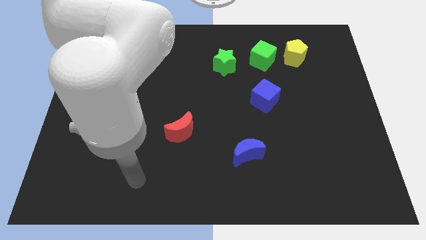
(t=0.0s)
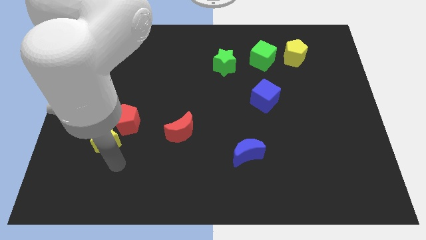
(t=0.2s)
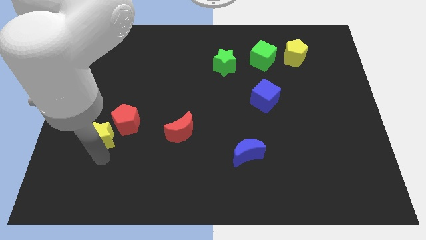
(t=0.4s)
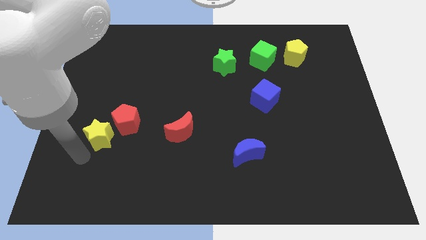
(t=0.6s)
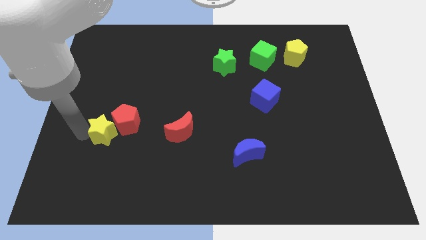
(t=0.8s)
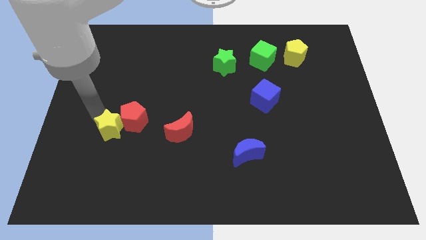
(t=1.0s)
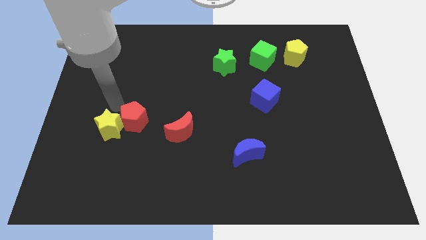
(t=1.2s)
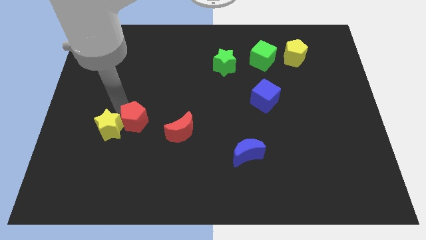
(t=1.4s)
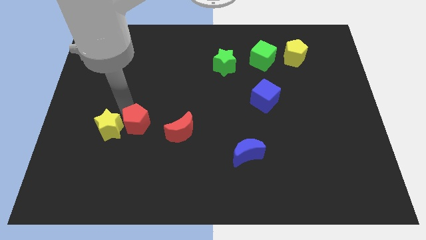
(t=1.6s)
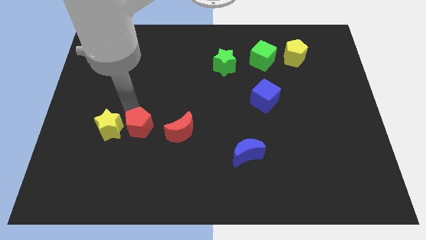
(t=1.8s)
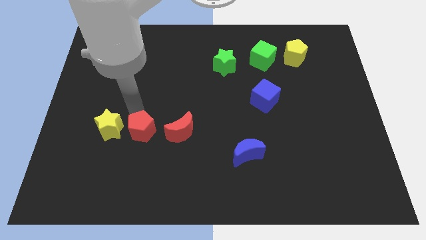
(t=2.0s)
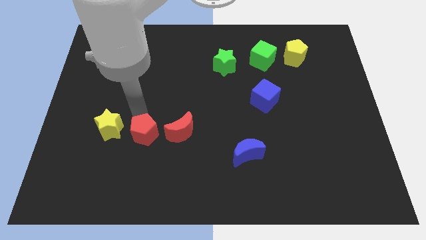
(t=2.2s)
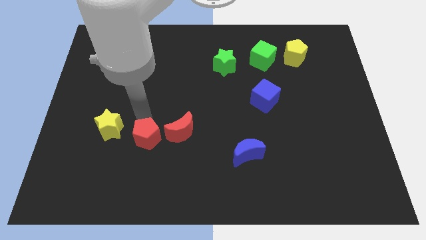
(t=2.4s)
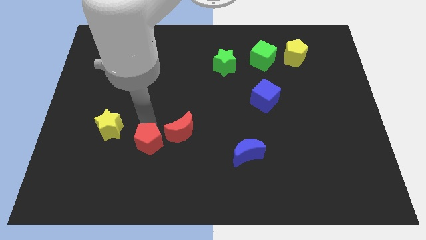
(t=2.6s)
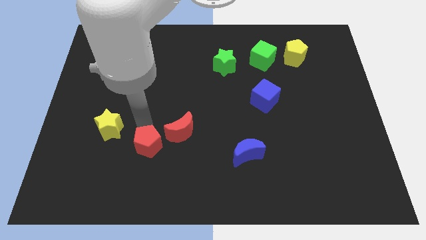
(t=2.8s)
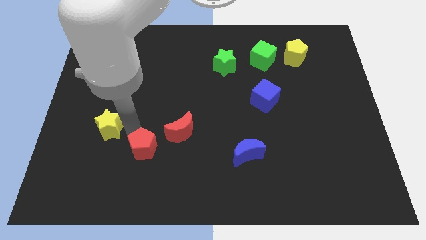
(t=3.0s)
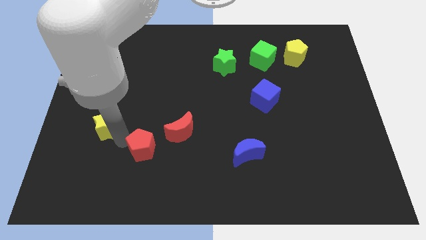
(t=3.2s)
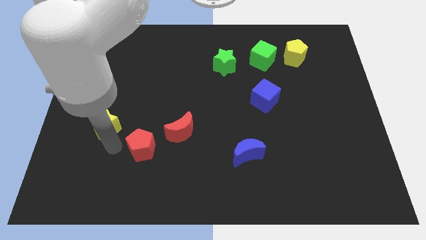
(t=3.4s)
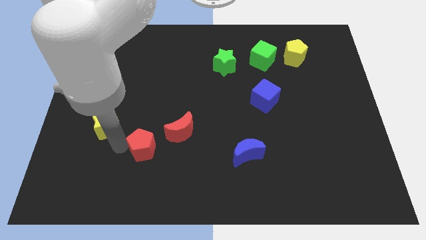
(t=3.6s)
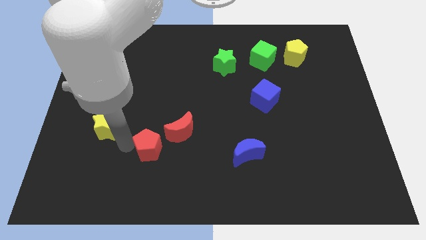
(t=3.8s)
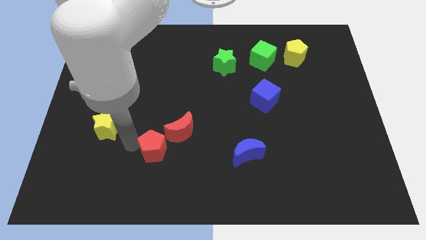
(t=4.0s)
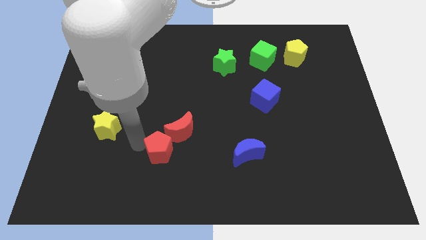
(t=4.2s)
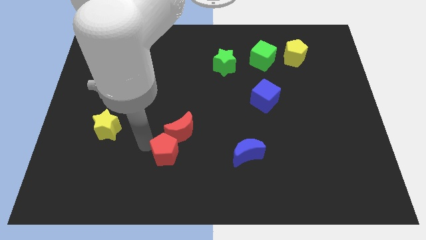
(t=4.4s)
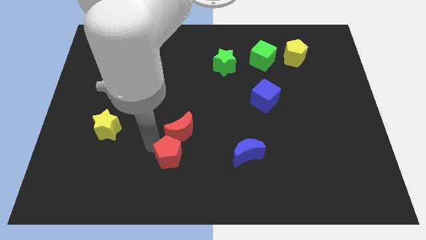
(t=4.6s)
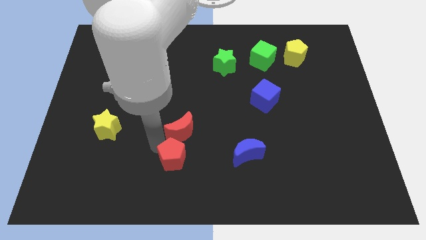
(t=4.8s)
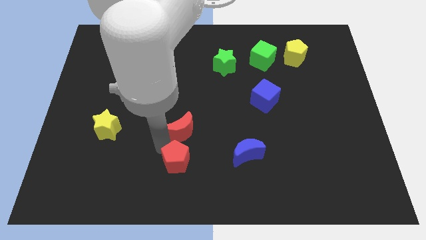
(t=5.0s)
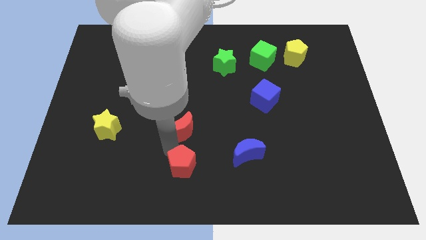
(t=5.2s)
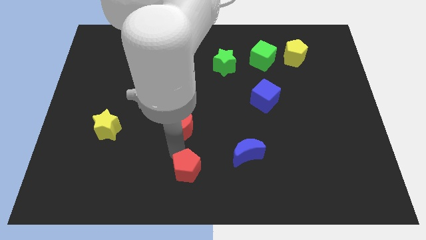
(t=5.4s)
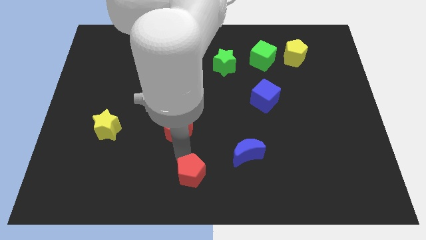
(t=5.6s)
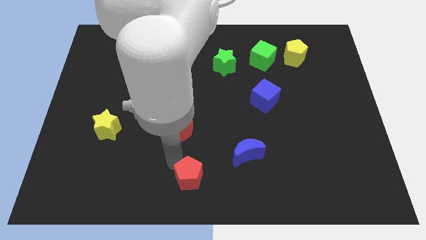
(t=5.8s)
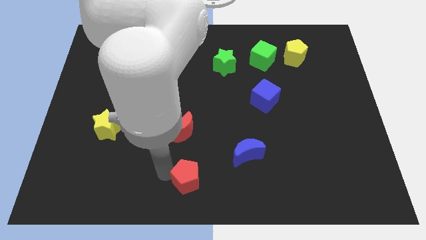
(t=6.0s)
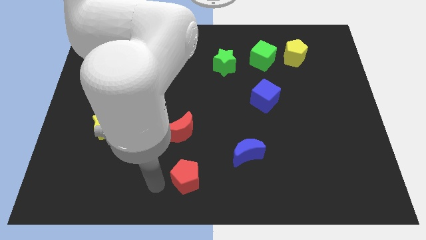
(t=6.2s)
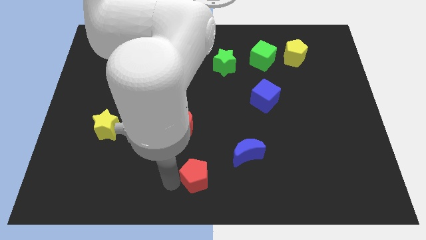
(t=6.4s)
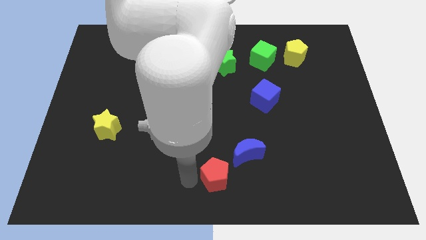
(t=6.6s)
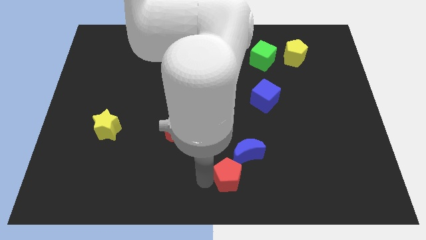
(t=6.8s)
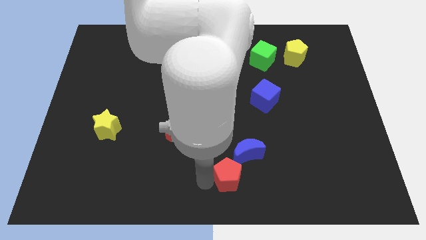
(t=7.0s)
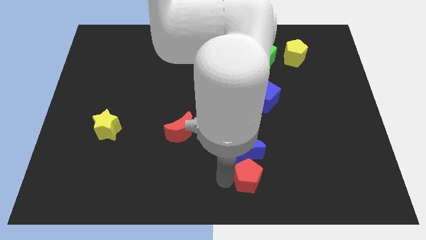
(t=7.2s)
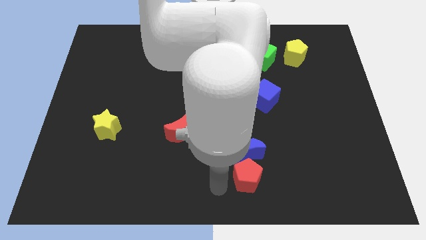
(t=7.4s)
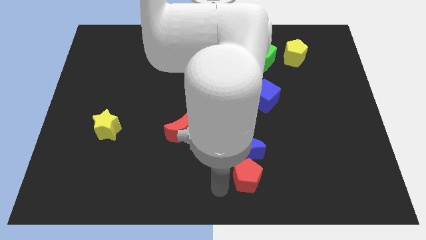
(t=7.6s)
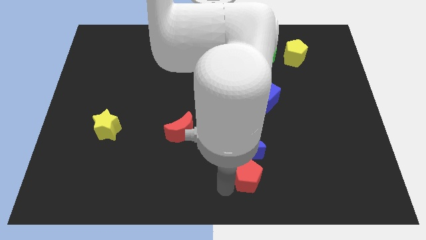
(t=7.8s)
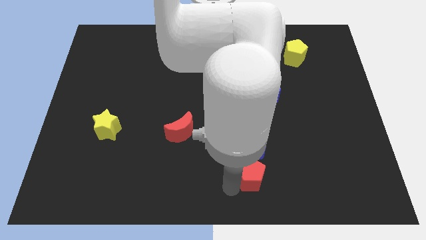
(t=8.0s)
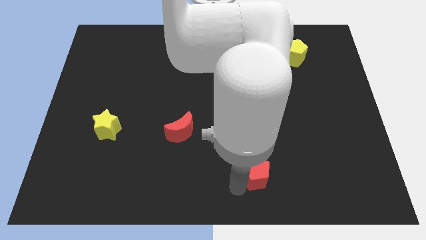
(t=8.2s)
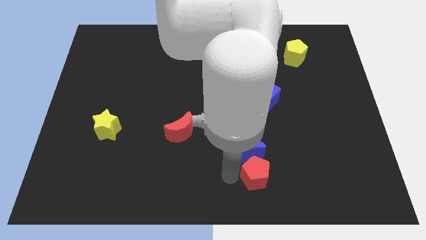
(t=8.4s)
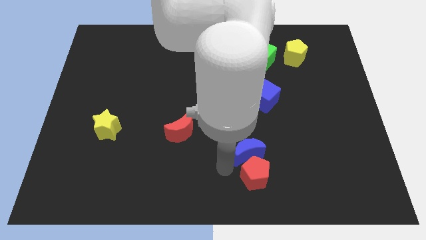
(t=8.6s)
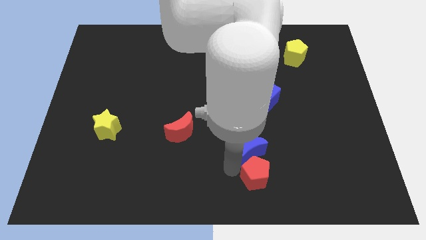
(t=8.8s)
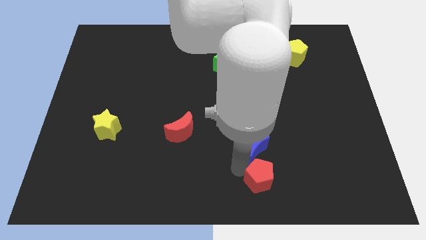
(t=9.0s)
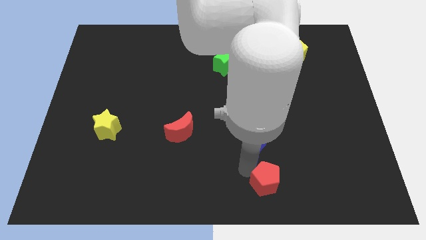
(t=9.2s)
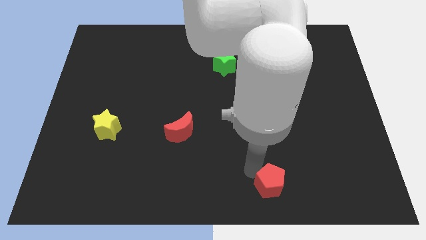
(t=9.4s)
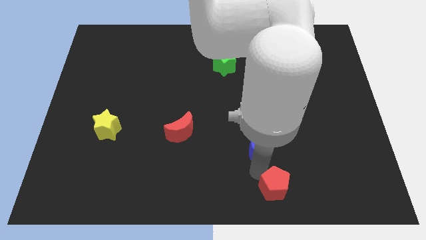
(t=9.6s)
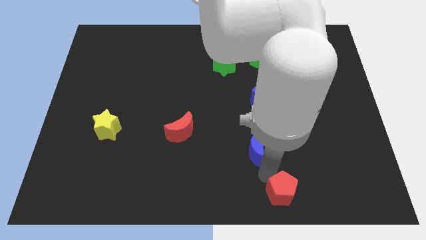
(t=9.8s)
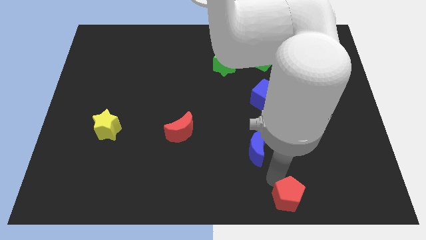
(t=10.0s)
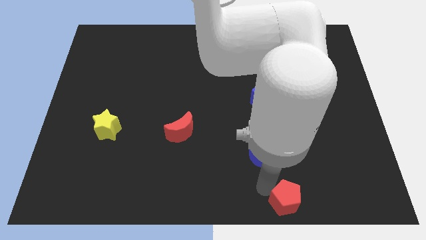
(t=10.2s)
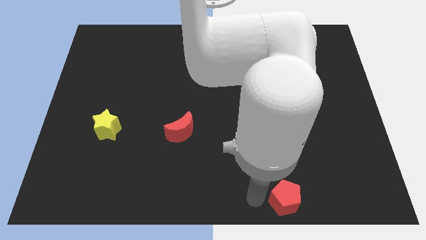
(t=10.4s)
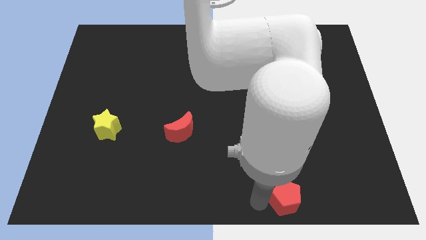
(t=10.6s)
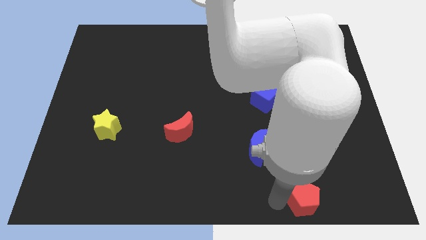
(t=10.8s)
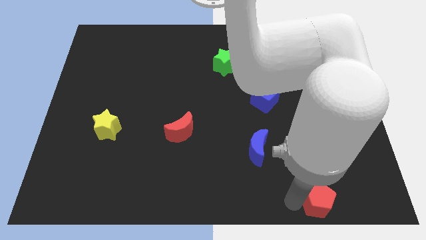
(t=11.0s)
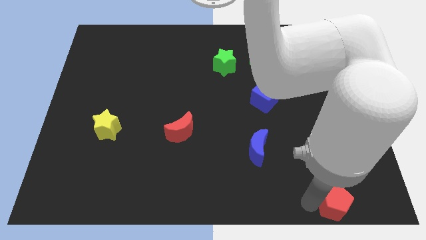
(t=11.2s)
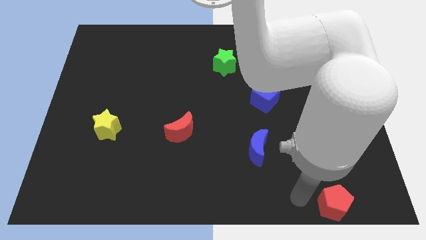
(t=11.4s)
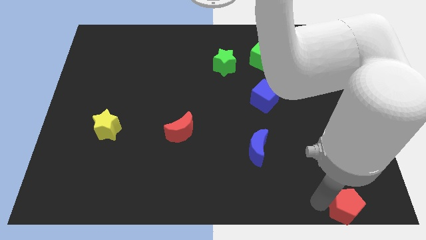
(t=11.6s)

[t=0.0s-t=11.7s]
push the red pentagon to the bottom right corner

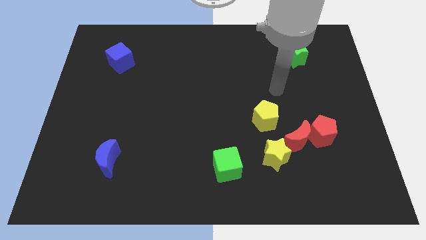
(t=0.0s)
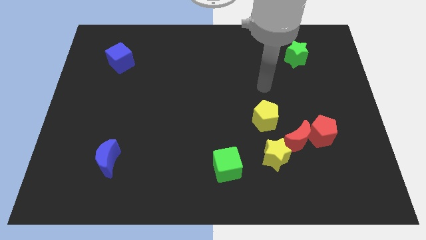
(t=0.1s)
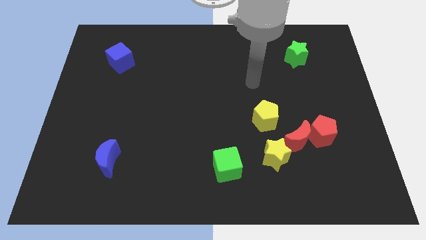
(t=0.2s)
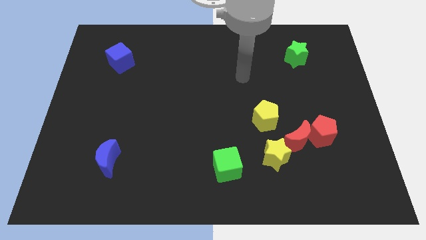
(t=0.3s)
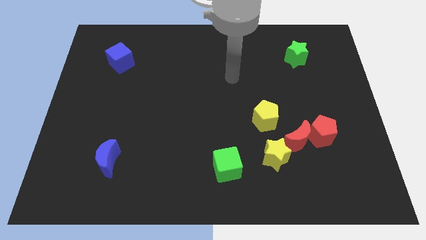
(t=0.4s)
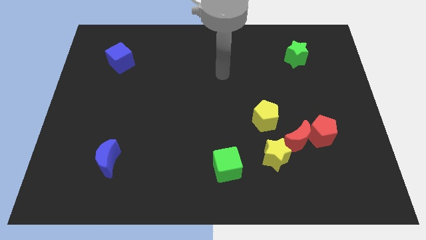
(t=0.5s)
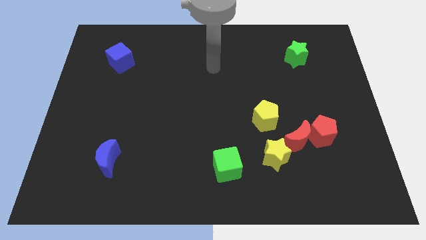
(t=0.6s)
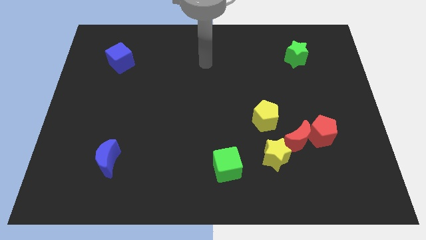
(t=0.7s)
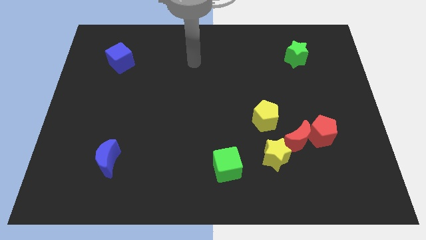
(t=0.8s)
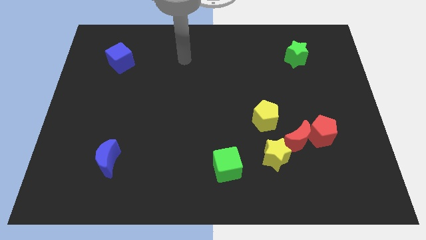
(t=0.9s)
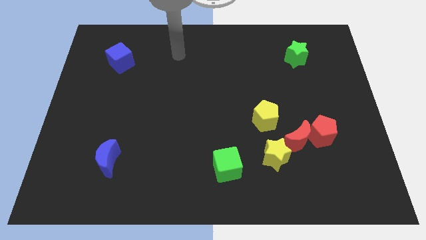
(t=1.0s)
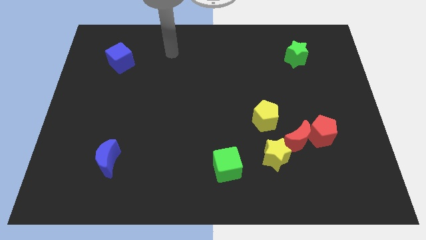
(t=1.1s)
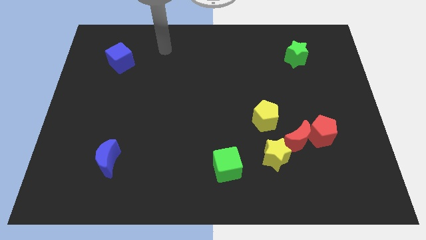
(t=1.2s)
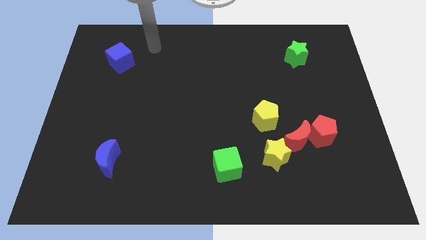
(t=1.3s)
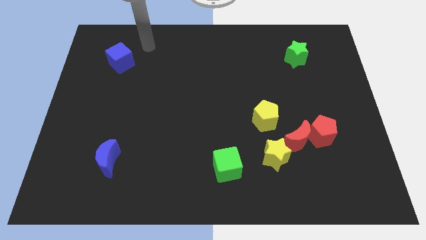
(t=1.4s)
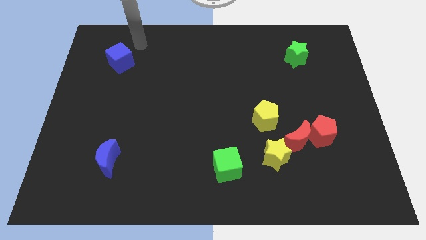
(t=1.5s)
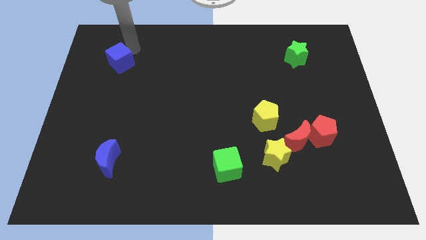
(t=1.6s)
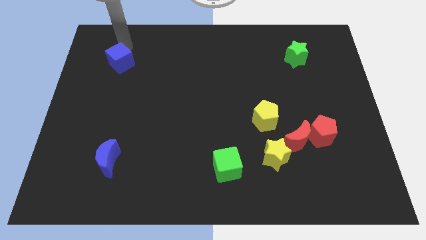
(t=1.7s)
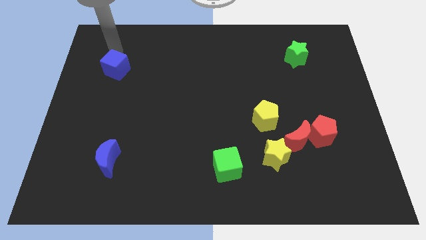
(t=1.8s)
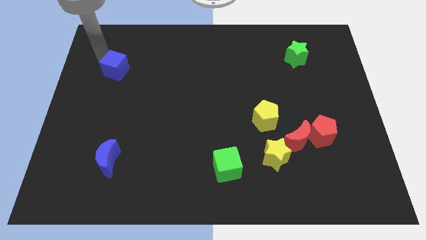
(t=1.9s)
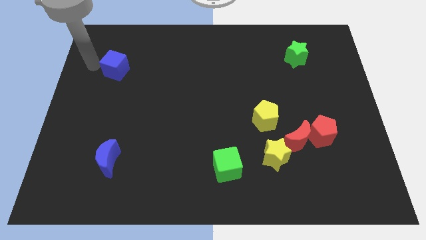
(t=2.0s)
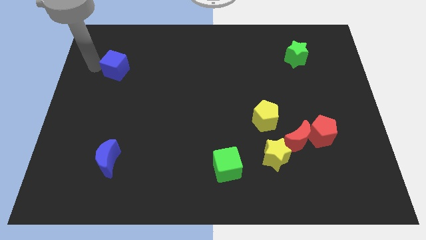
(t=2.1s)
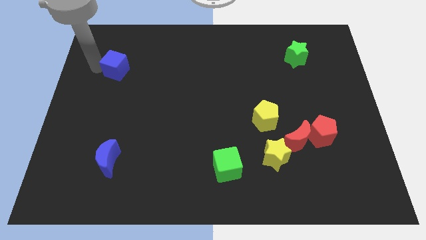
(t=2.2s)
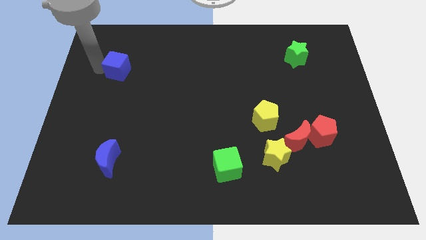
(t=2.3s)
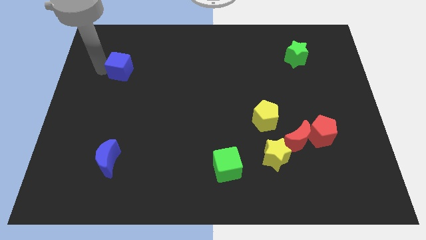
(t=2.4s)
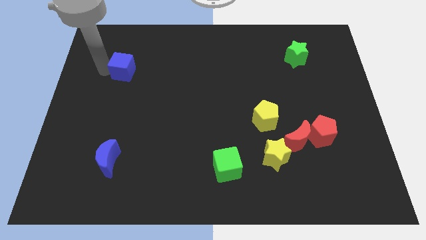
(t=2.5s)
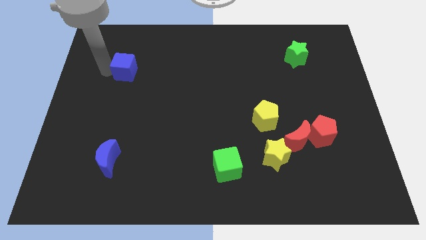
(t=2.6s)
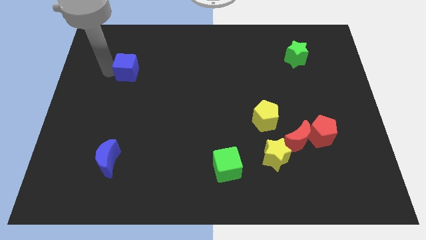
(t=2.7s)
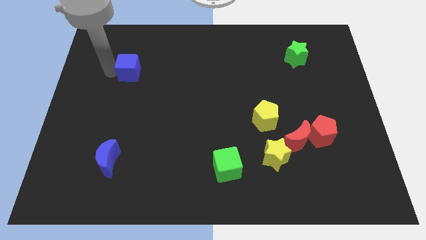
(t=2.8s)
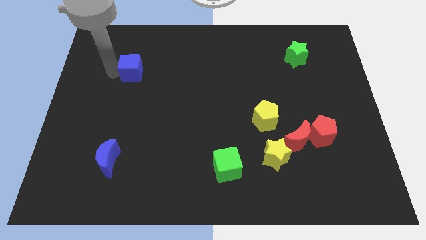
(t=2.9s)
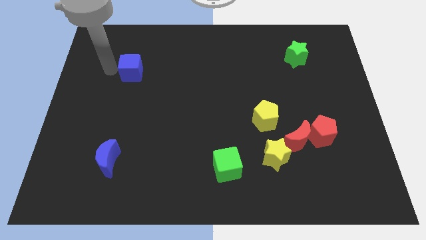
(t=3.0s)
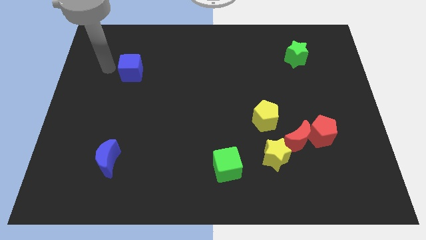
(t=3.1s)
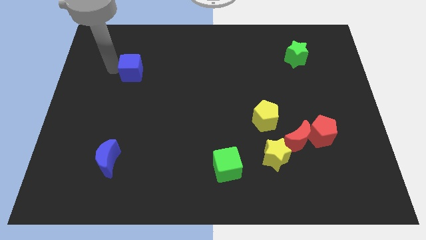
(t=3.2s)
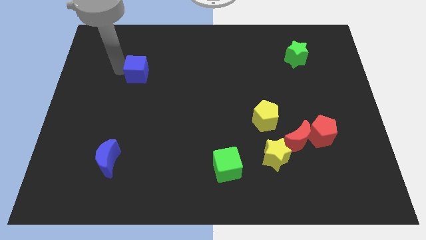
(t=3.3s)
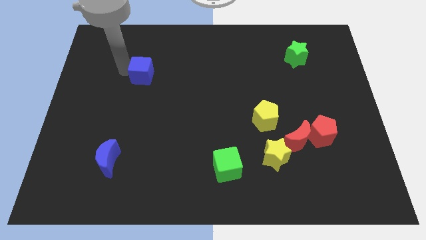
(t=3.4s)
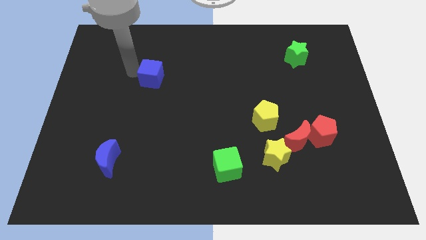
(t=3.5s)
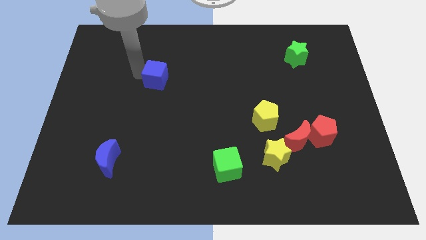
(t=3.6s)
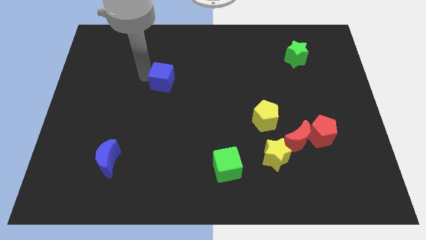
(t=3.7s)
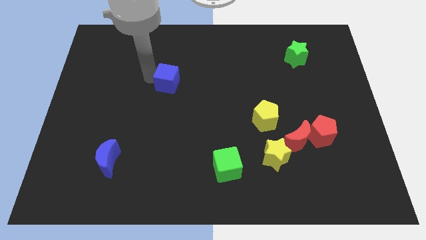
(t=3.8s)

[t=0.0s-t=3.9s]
move the blue cube to the middle of the board
